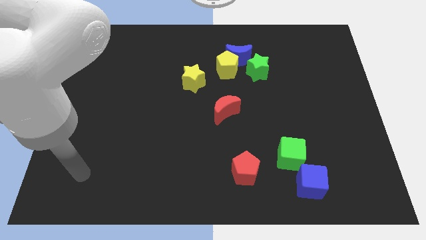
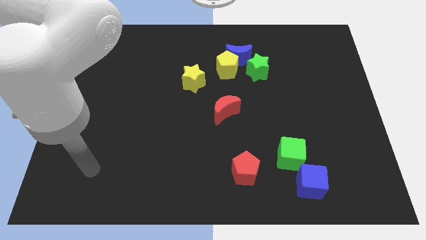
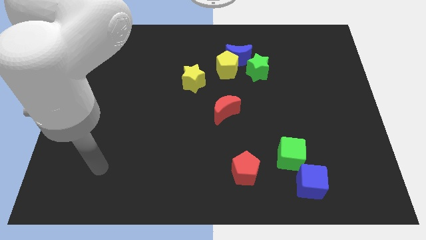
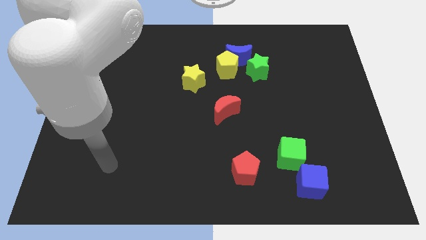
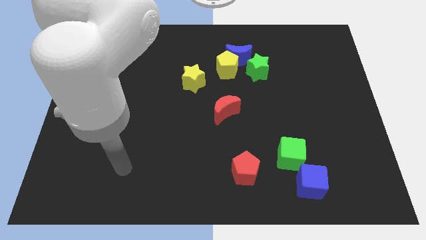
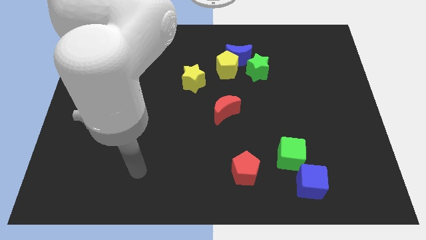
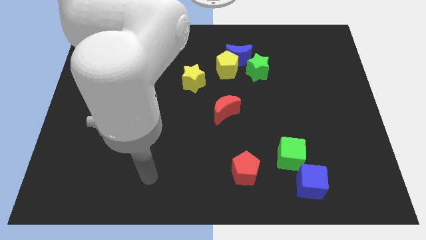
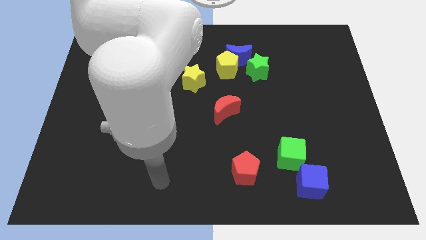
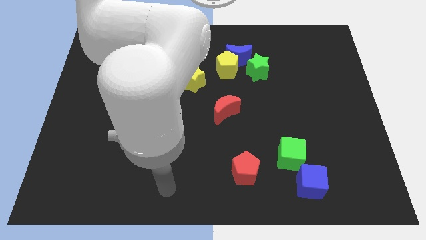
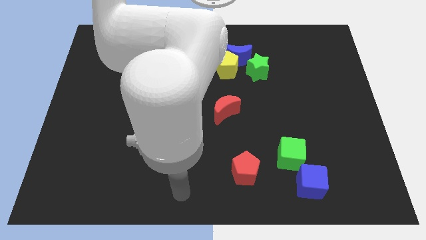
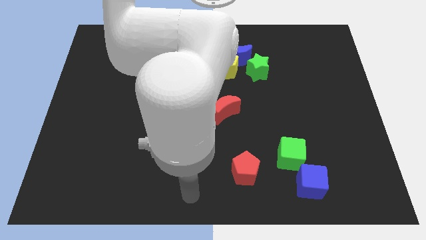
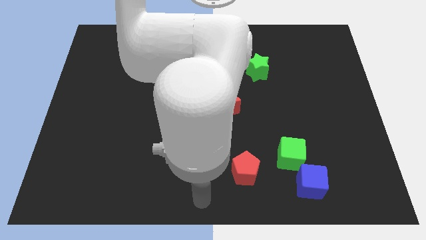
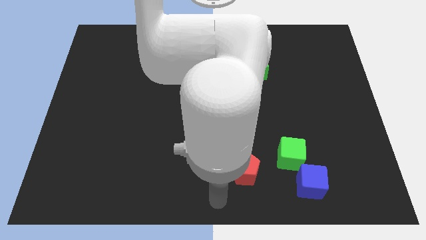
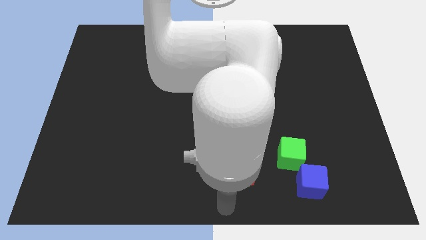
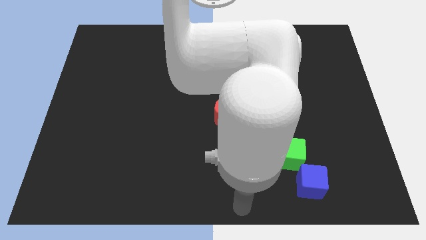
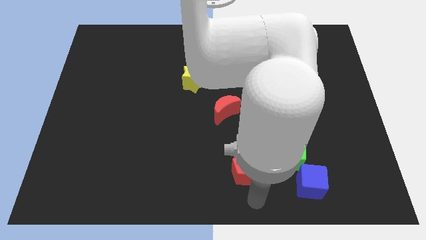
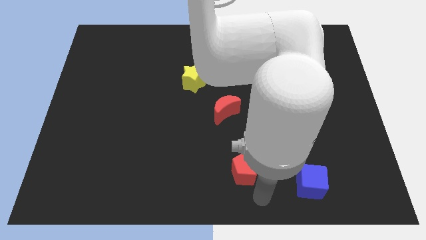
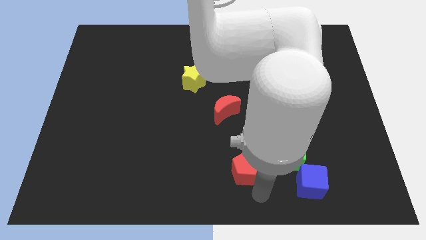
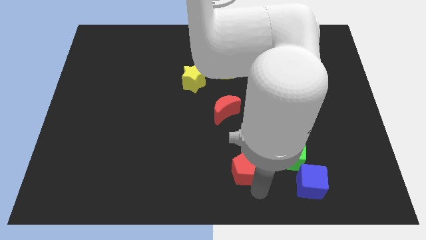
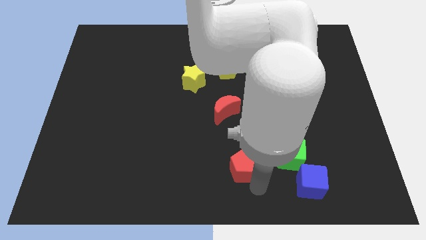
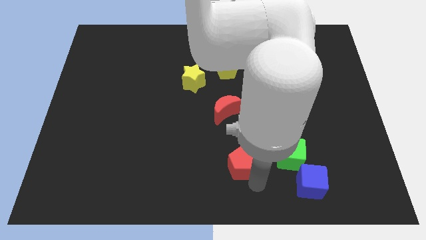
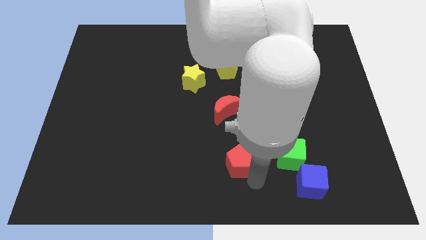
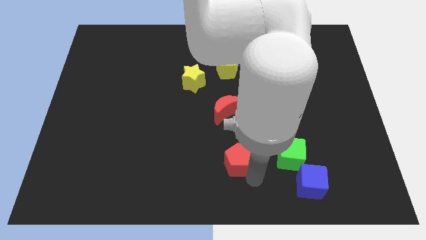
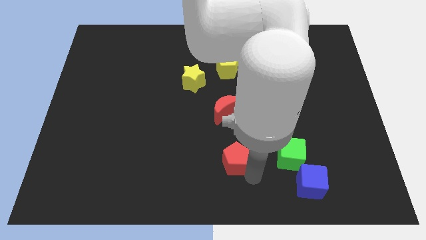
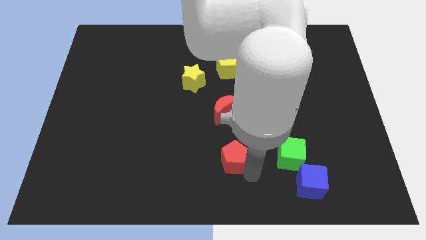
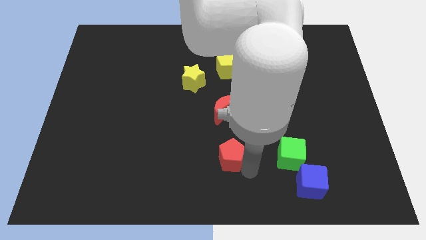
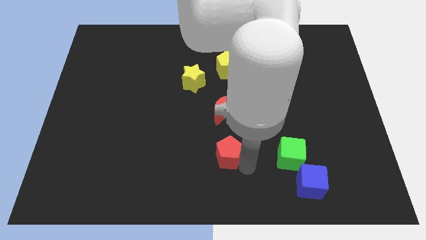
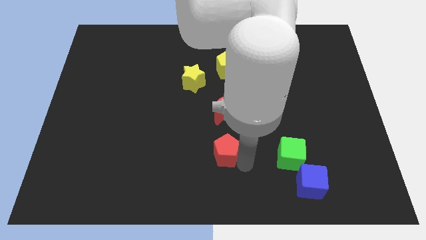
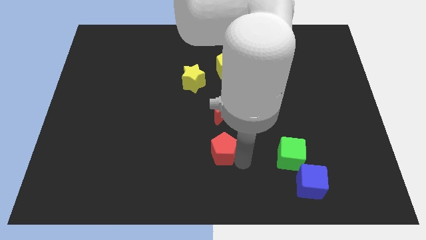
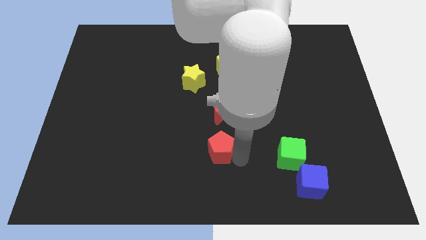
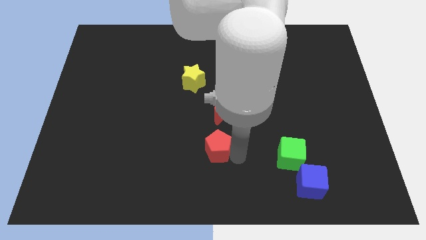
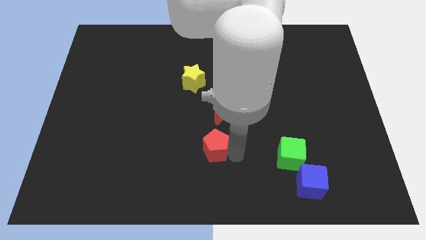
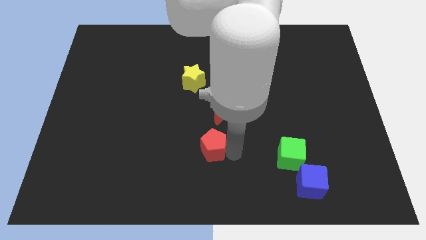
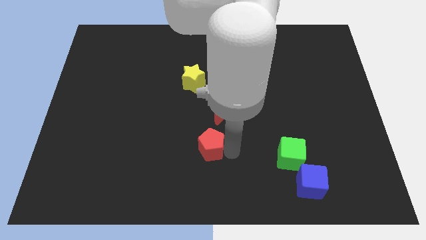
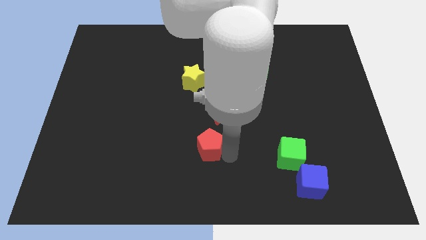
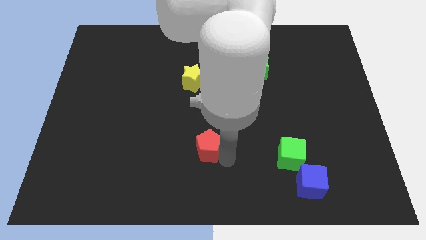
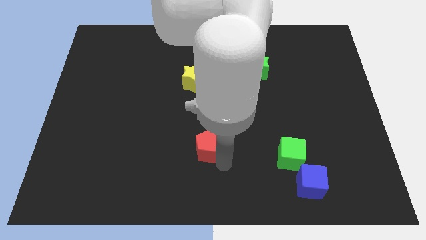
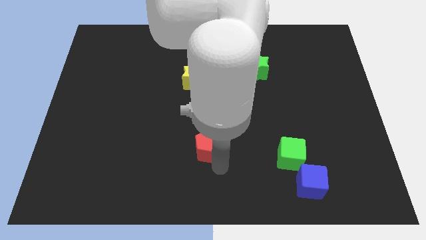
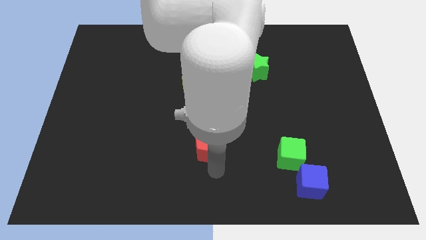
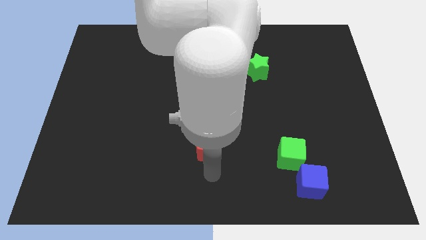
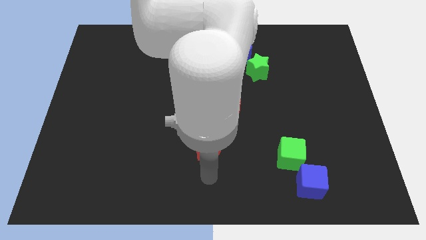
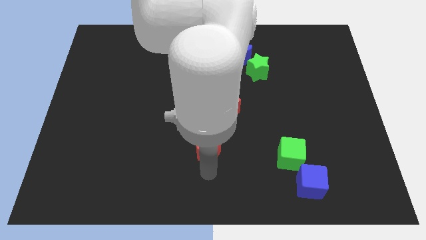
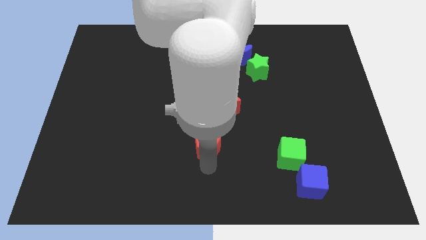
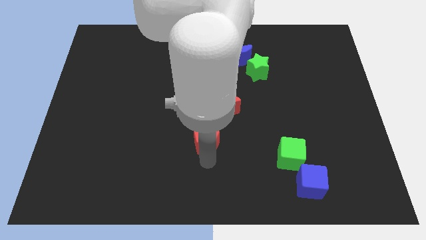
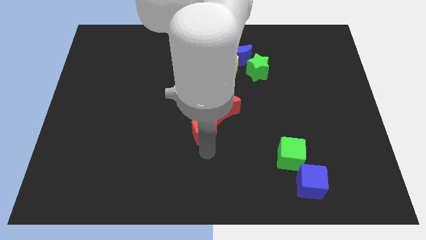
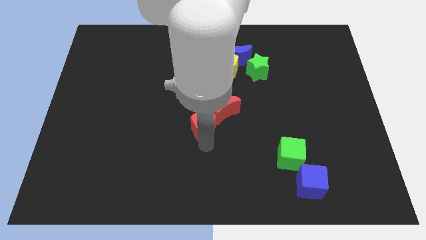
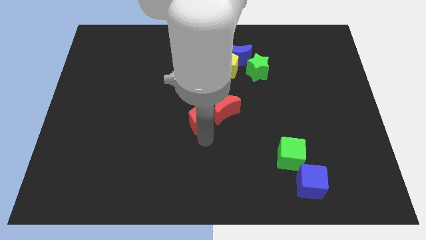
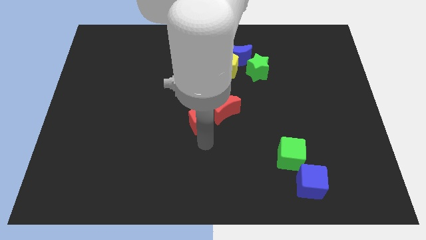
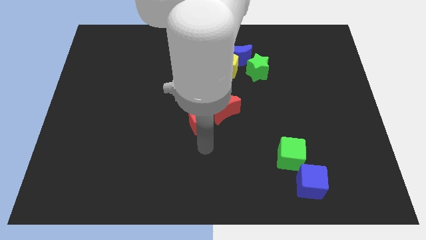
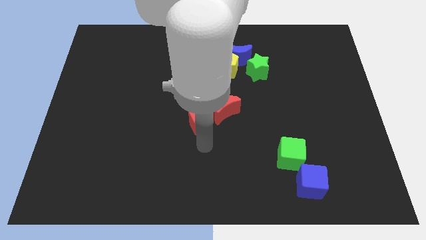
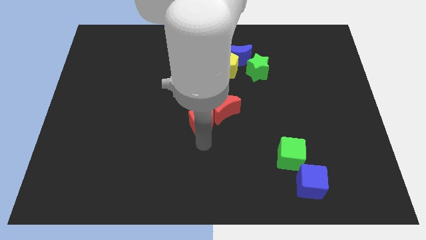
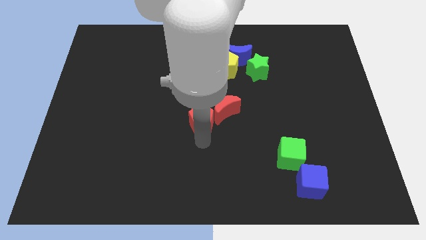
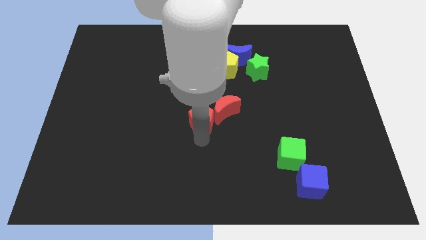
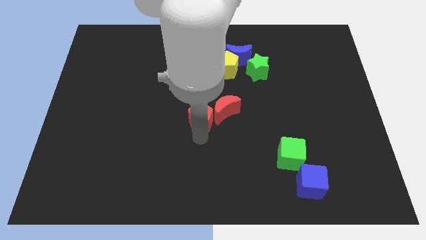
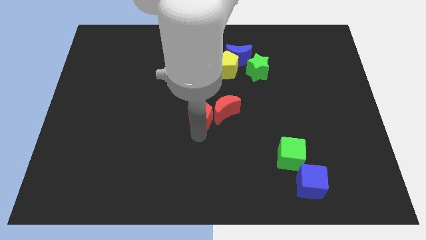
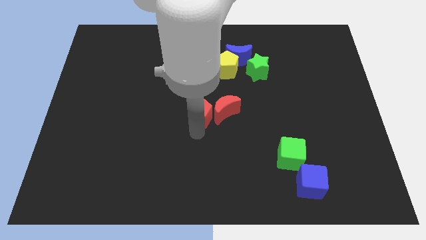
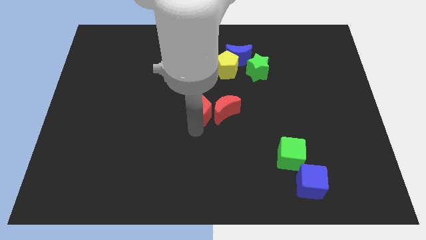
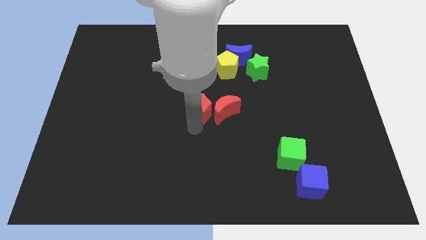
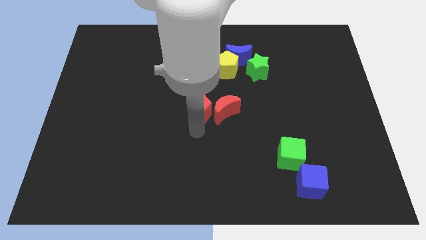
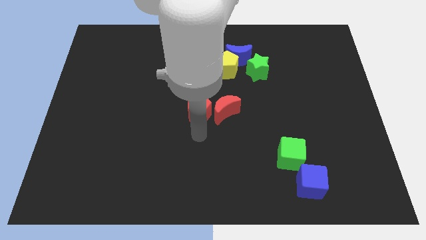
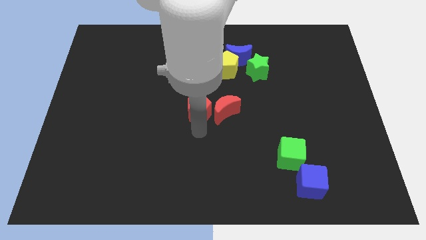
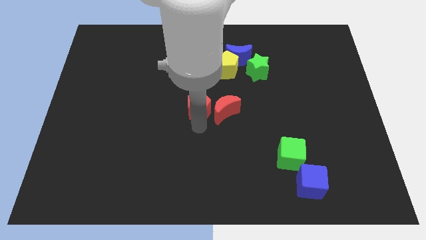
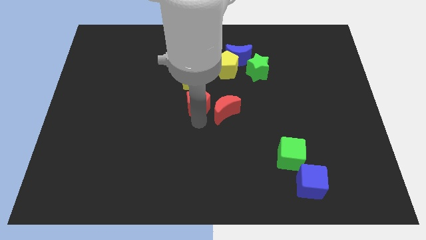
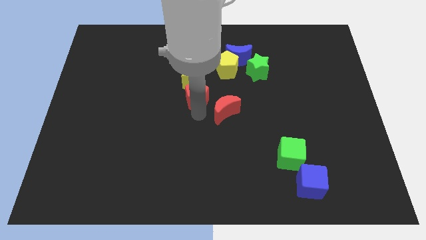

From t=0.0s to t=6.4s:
move the red pentagon next to the yellow star

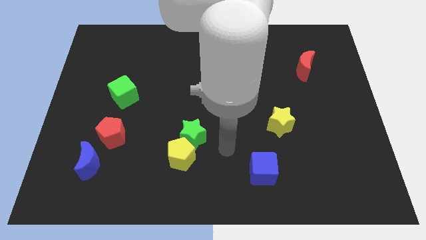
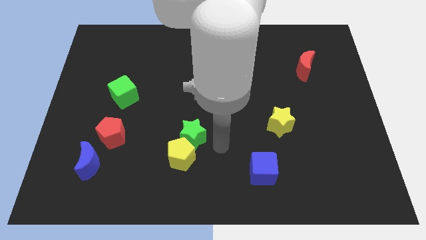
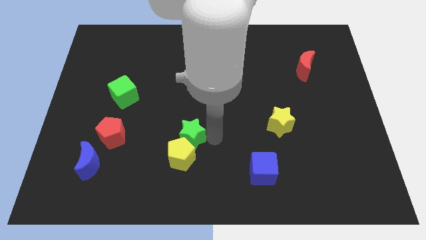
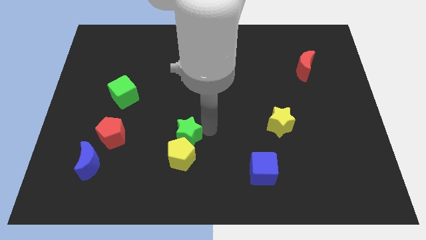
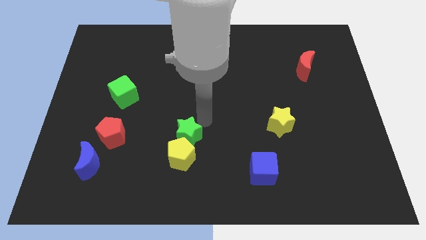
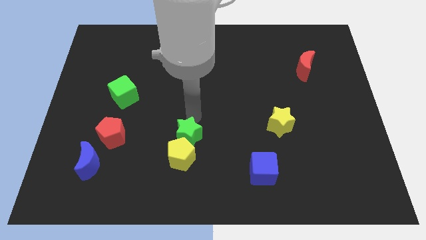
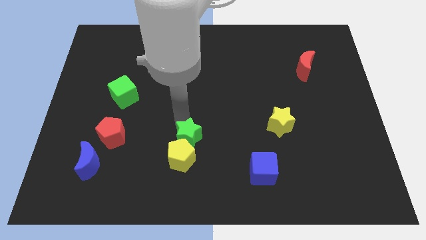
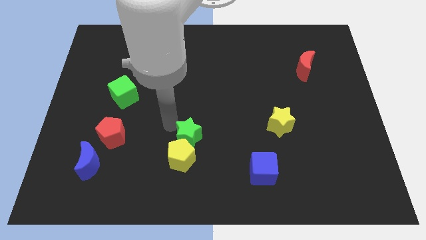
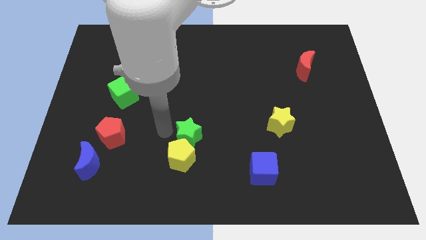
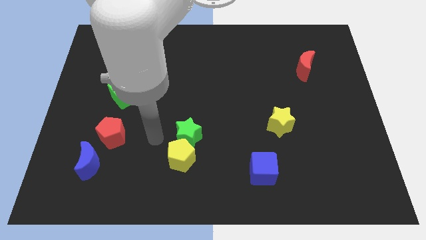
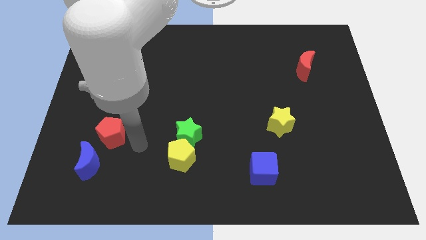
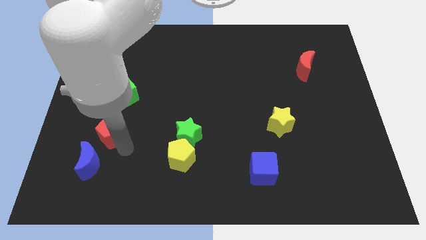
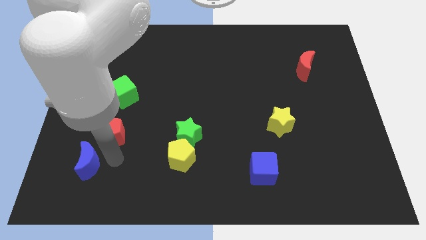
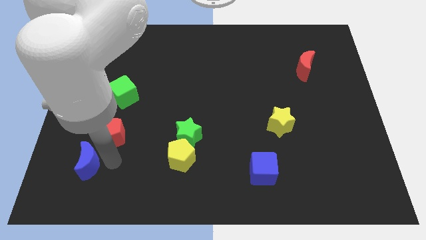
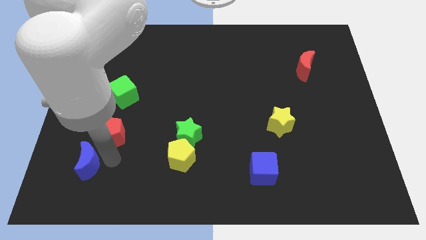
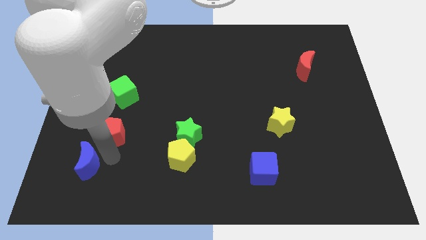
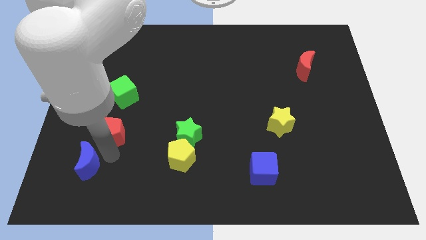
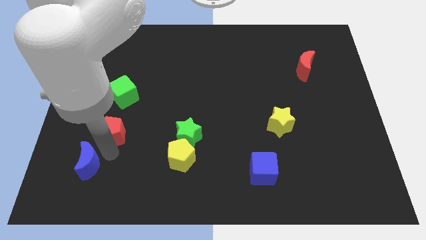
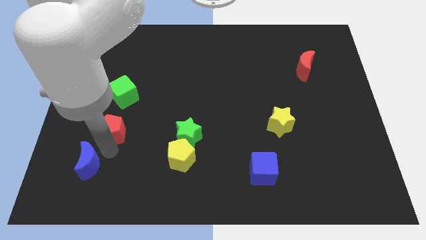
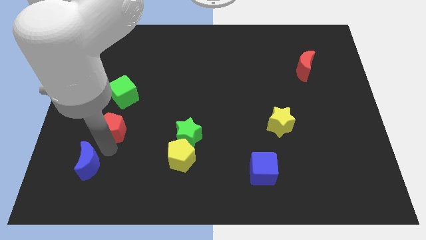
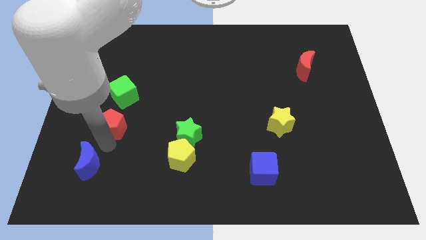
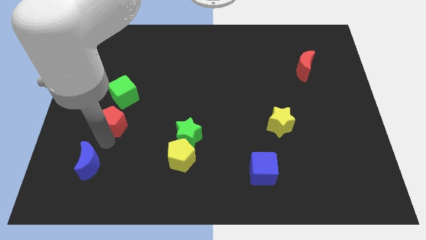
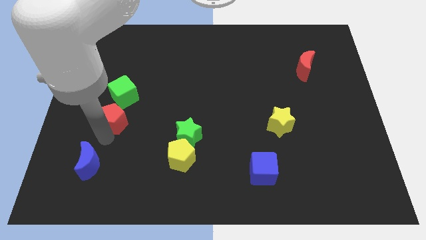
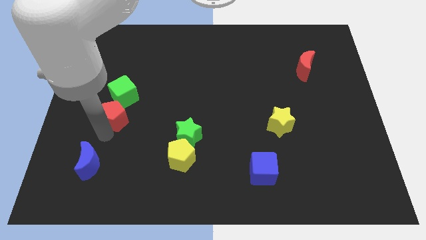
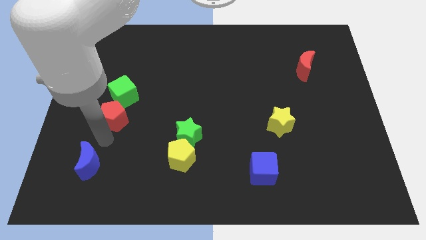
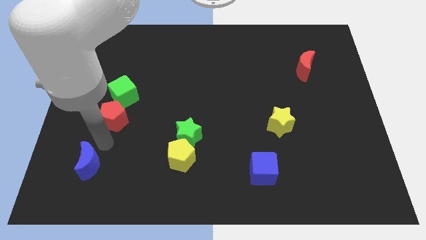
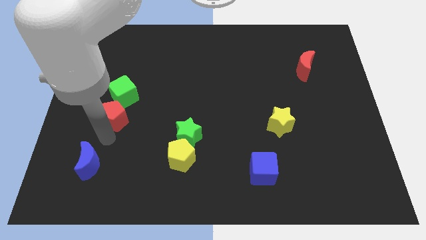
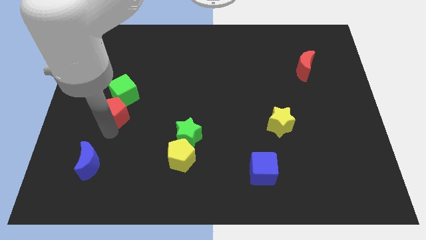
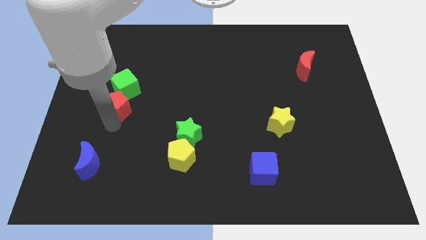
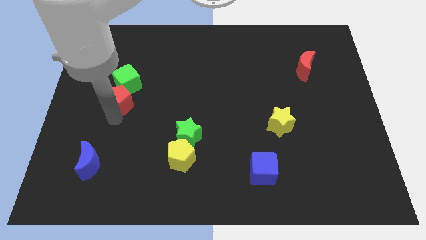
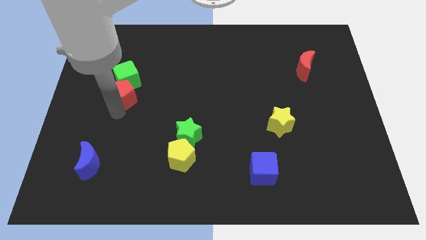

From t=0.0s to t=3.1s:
slide the red pentagon towards the green cube
